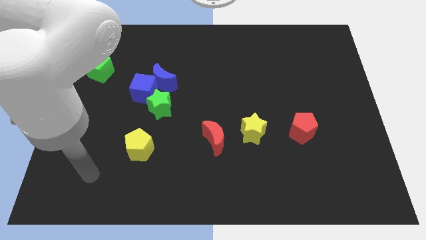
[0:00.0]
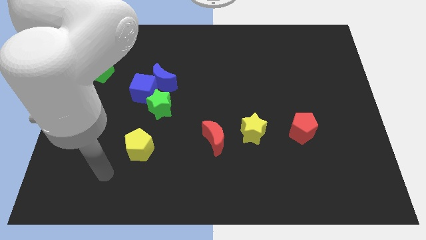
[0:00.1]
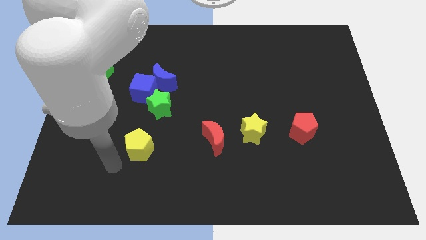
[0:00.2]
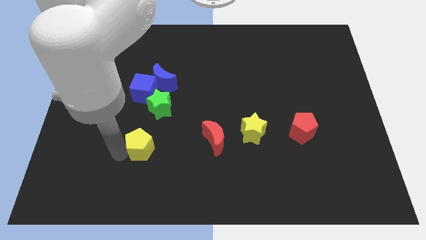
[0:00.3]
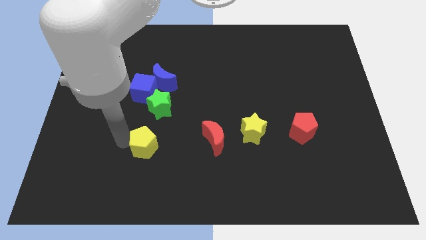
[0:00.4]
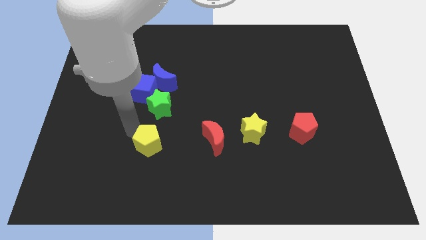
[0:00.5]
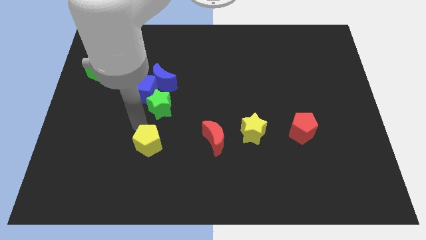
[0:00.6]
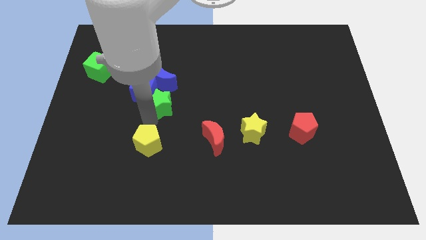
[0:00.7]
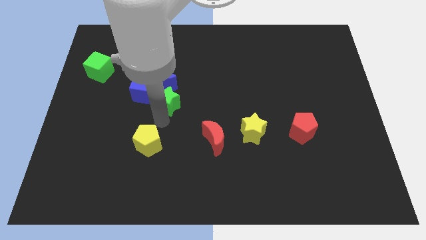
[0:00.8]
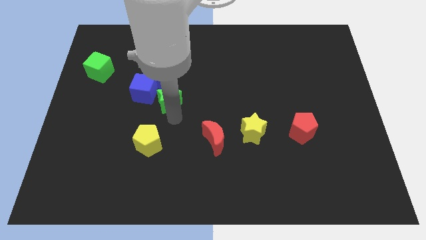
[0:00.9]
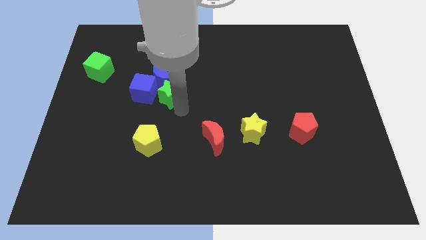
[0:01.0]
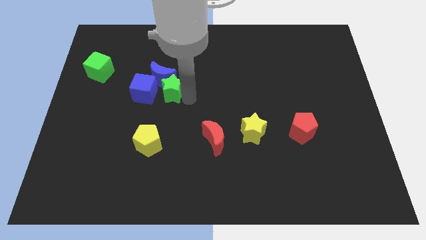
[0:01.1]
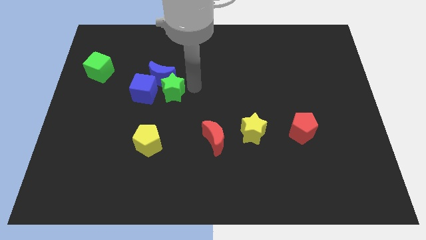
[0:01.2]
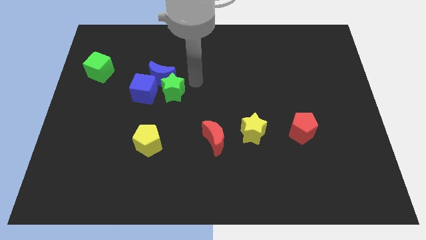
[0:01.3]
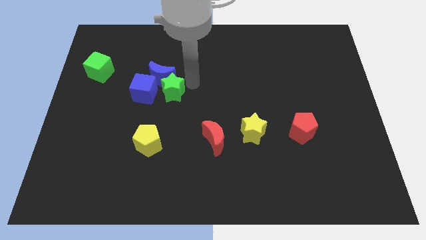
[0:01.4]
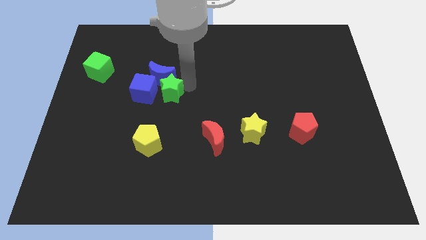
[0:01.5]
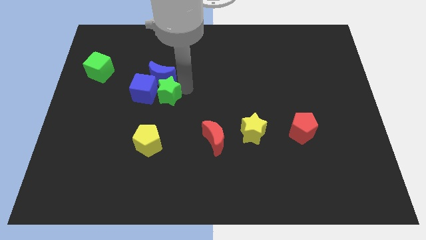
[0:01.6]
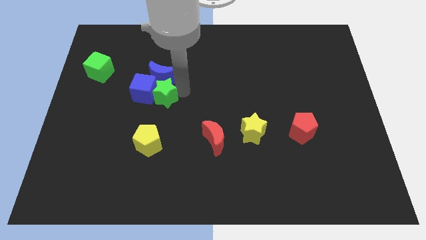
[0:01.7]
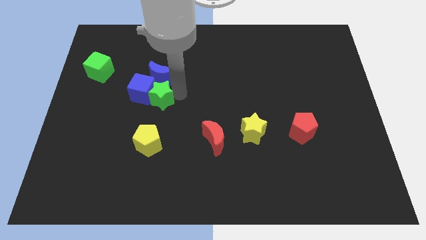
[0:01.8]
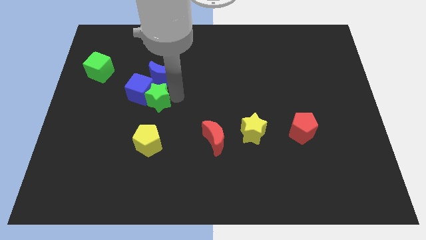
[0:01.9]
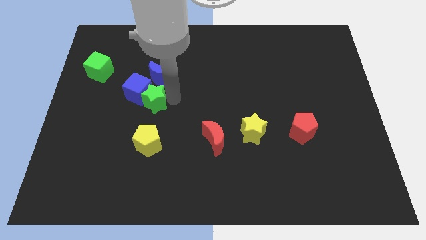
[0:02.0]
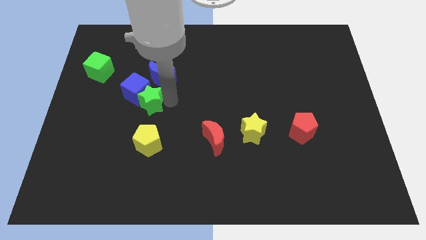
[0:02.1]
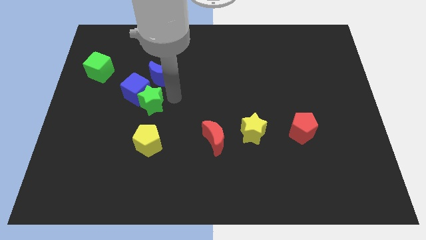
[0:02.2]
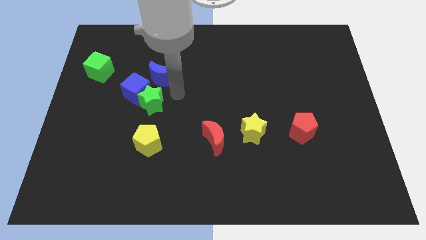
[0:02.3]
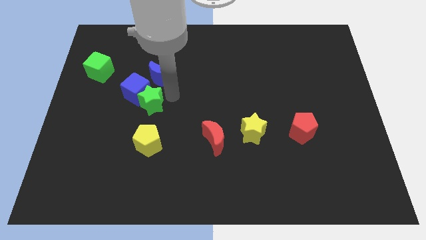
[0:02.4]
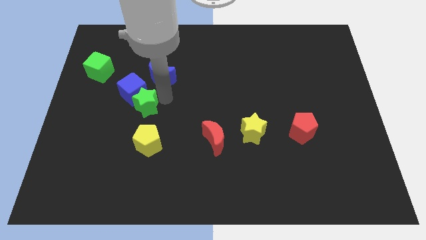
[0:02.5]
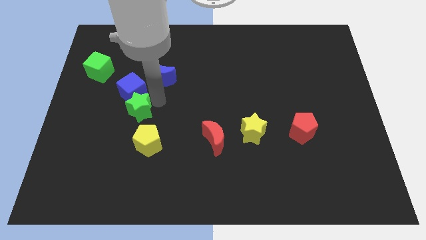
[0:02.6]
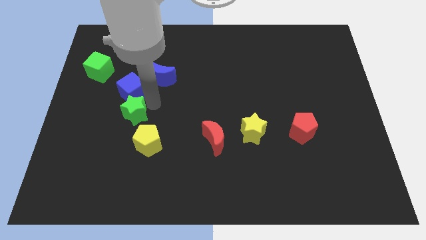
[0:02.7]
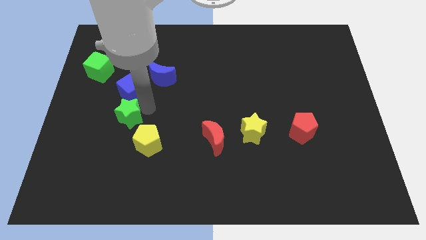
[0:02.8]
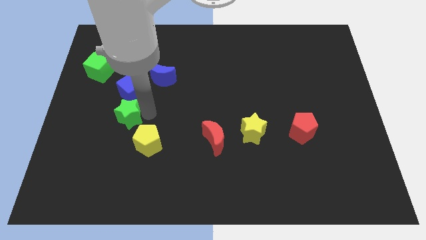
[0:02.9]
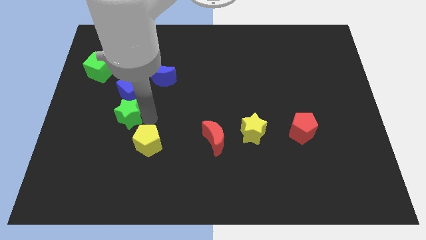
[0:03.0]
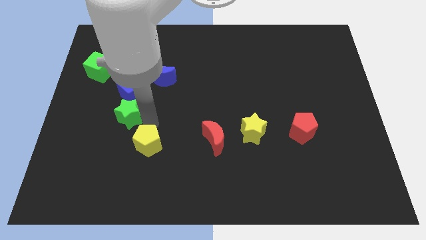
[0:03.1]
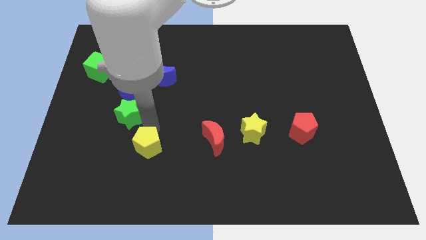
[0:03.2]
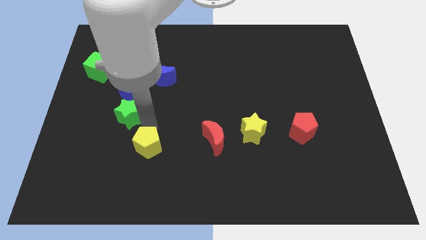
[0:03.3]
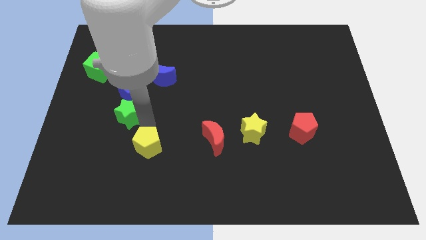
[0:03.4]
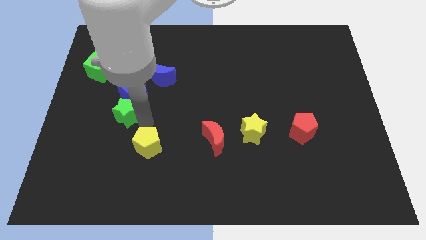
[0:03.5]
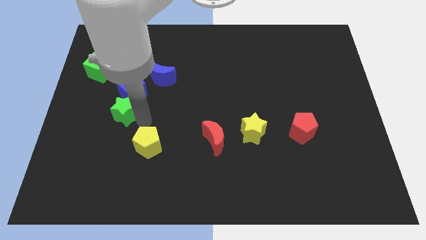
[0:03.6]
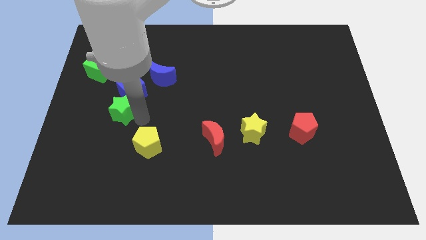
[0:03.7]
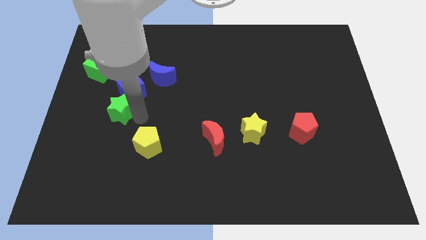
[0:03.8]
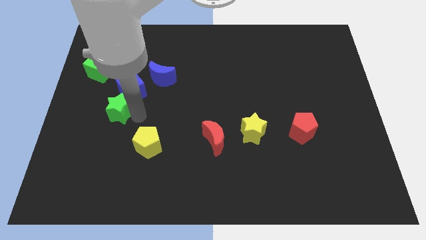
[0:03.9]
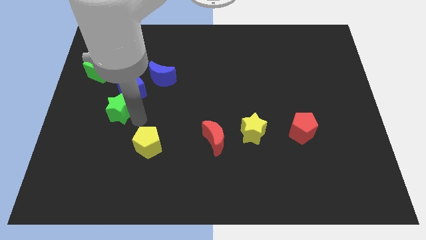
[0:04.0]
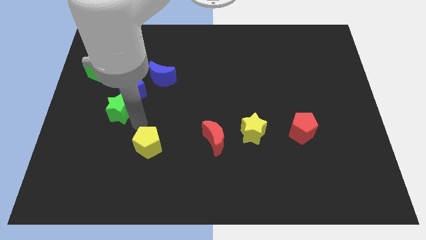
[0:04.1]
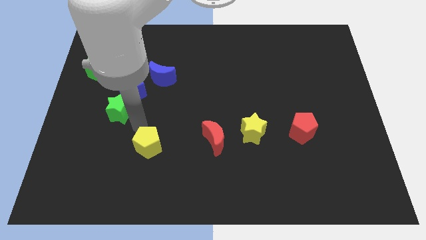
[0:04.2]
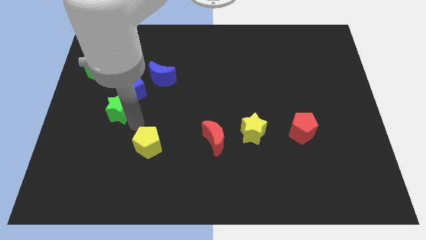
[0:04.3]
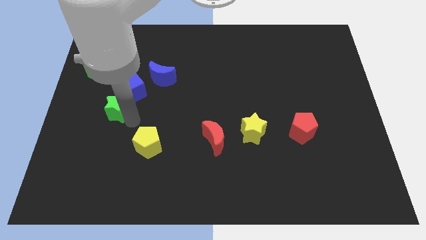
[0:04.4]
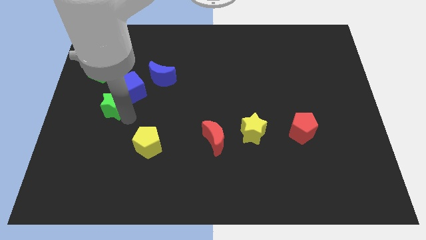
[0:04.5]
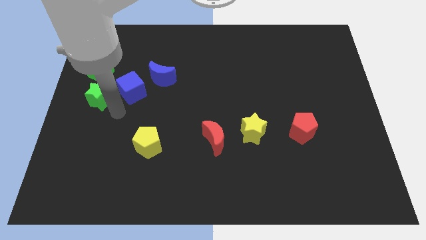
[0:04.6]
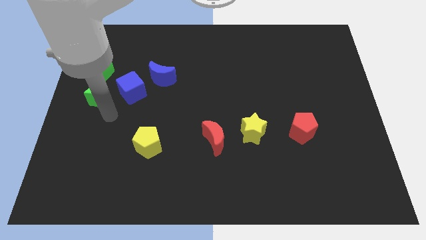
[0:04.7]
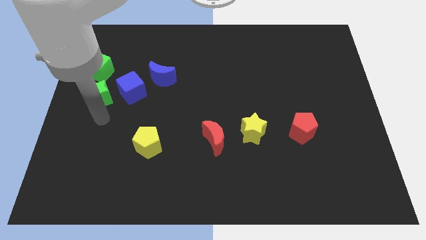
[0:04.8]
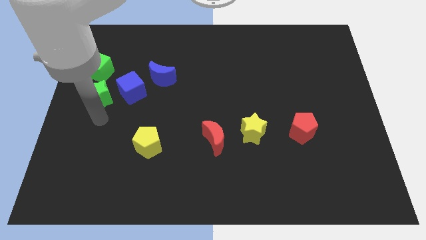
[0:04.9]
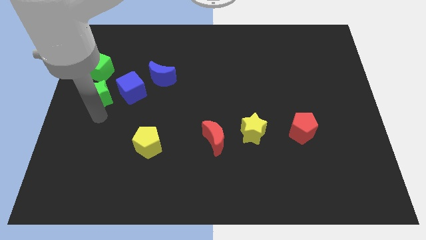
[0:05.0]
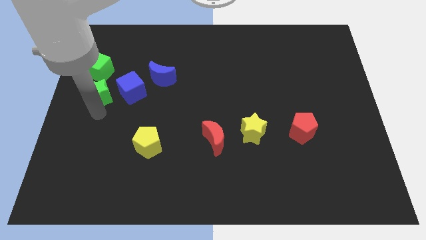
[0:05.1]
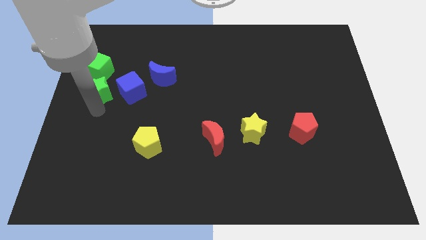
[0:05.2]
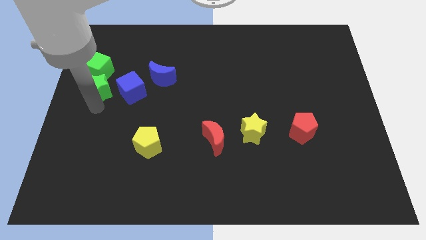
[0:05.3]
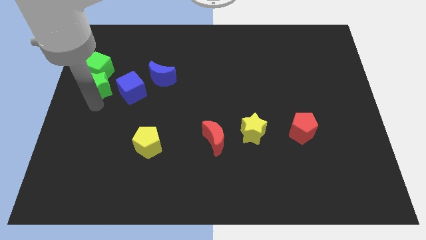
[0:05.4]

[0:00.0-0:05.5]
push the green star to the green cube

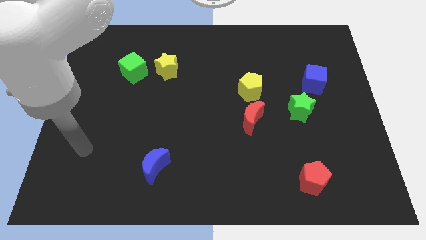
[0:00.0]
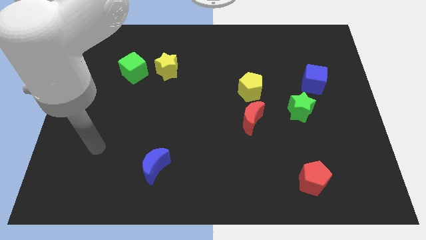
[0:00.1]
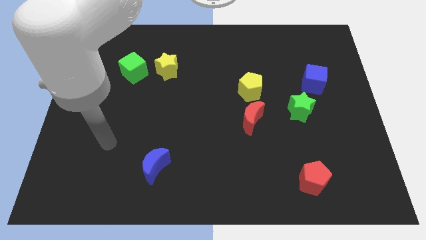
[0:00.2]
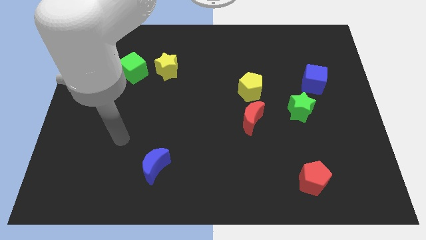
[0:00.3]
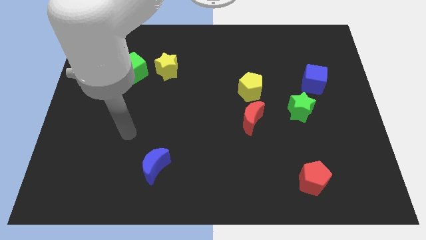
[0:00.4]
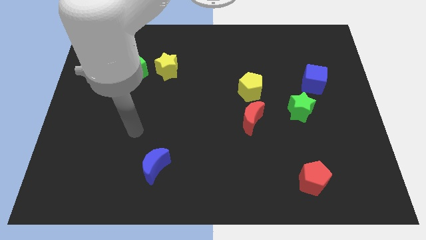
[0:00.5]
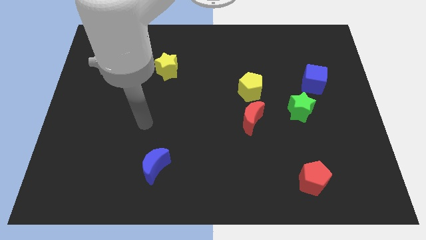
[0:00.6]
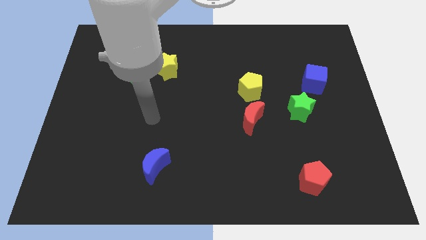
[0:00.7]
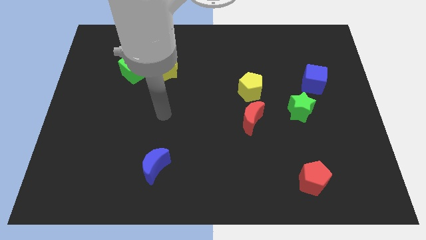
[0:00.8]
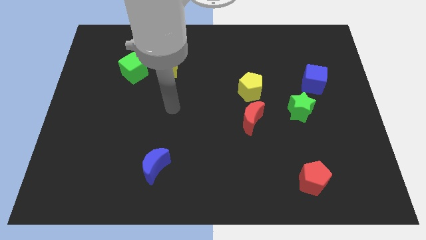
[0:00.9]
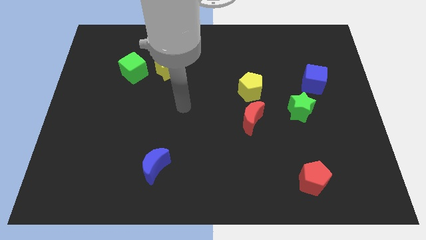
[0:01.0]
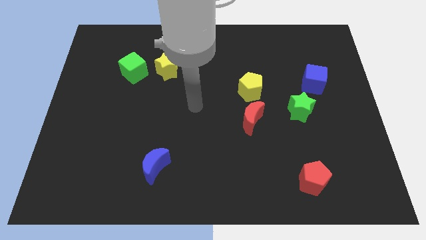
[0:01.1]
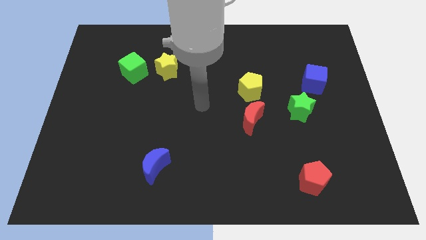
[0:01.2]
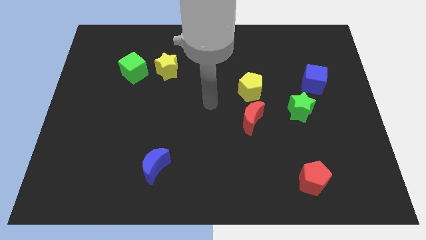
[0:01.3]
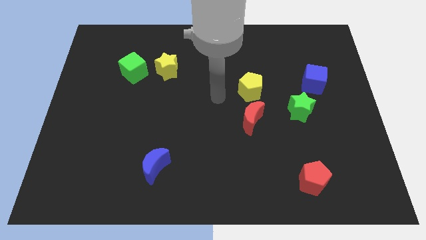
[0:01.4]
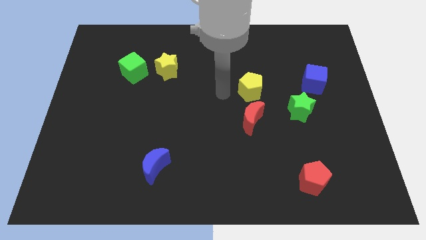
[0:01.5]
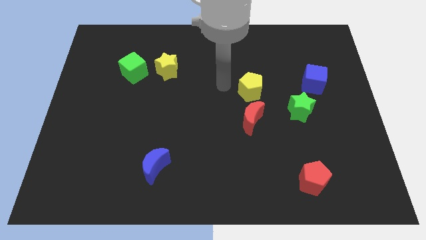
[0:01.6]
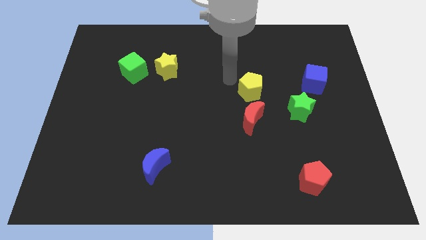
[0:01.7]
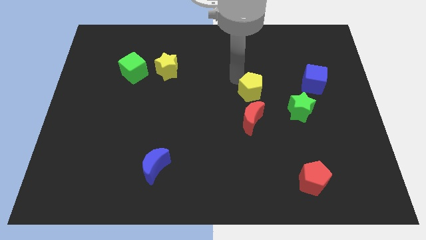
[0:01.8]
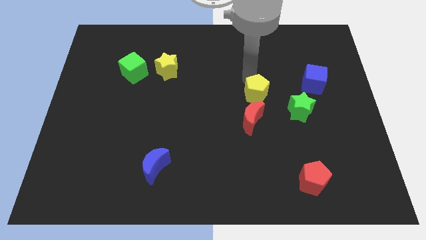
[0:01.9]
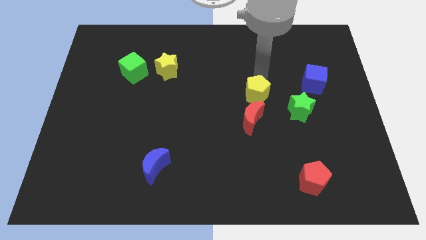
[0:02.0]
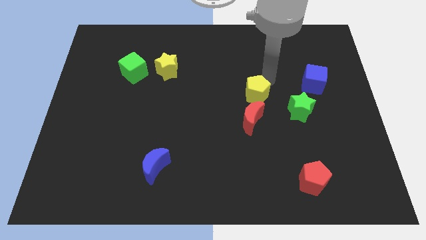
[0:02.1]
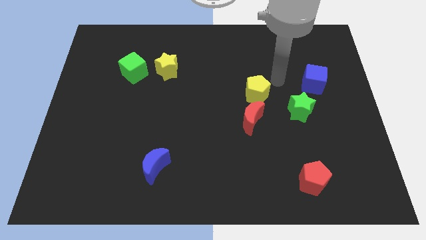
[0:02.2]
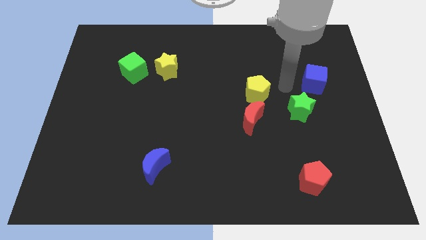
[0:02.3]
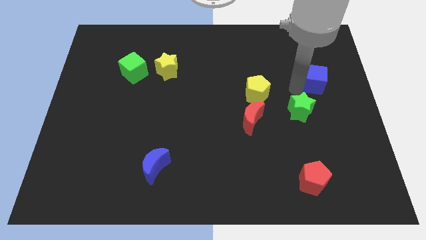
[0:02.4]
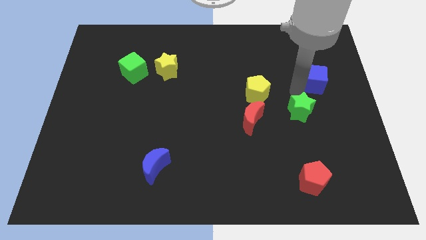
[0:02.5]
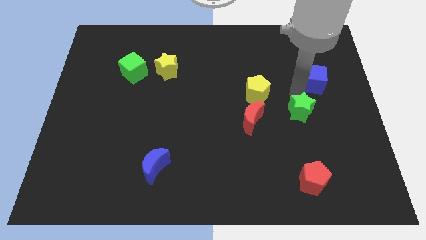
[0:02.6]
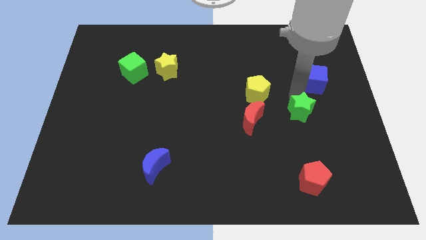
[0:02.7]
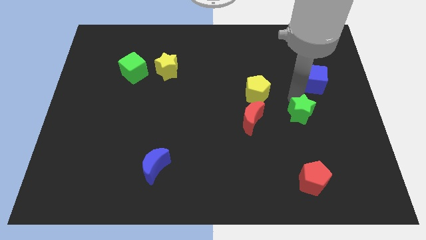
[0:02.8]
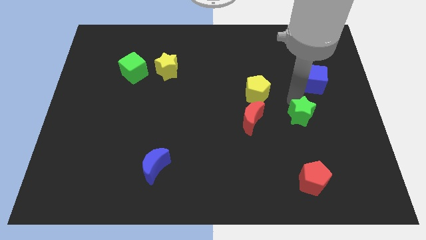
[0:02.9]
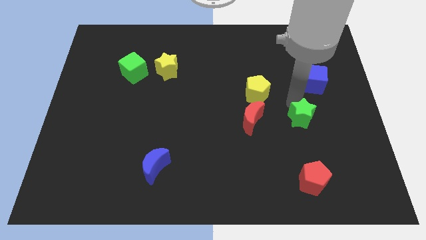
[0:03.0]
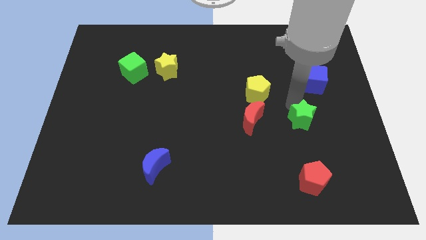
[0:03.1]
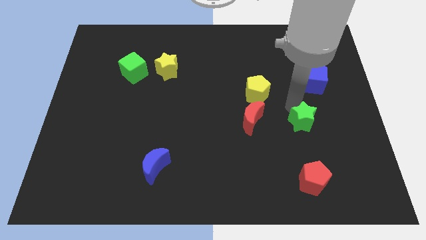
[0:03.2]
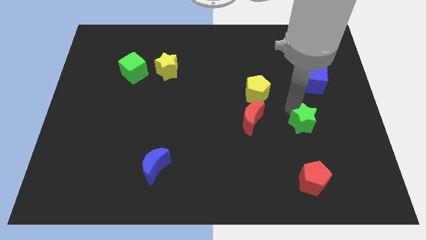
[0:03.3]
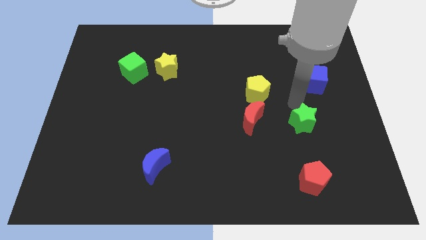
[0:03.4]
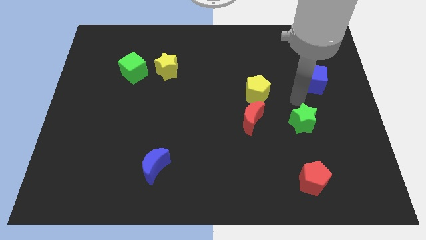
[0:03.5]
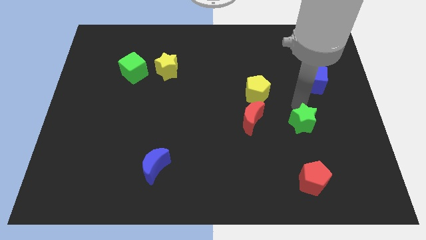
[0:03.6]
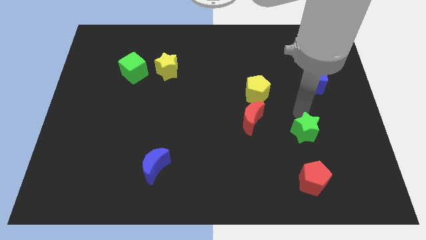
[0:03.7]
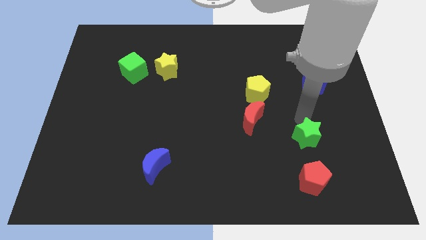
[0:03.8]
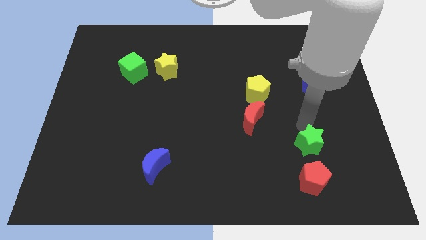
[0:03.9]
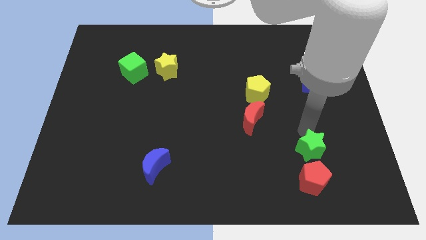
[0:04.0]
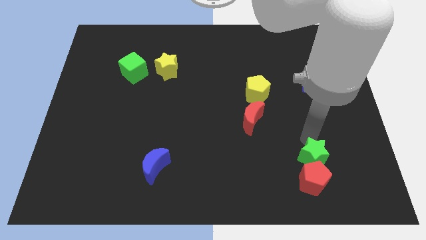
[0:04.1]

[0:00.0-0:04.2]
slide the green star close to the red pentagon
